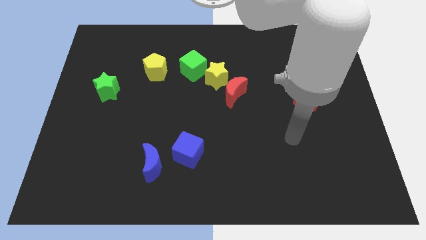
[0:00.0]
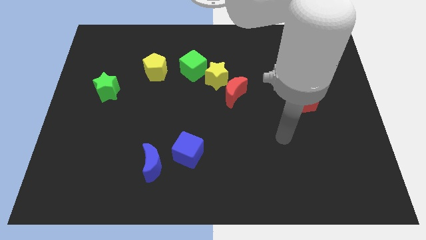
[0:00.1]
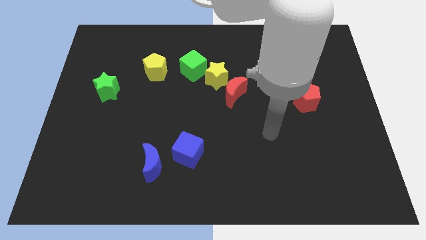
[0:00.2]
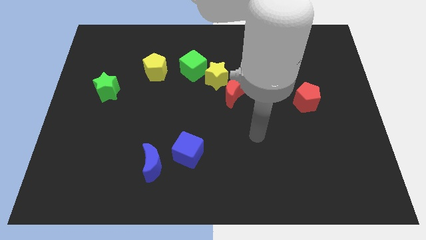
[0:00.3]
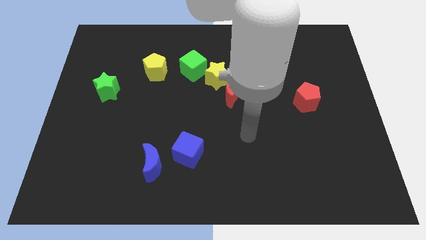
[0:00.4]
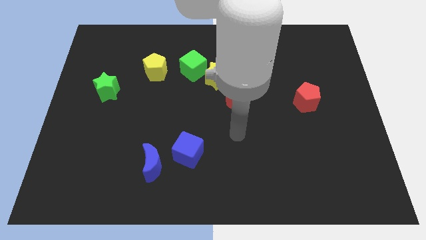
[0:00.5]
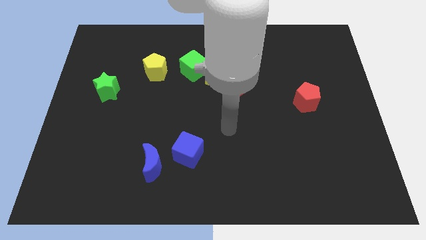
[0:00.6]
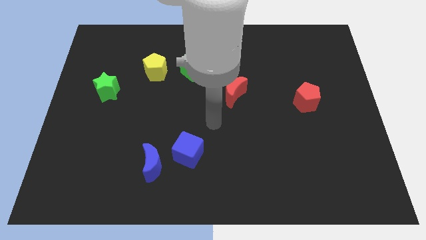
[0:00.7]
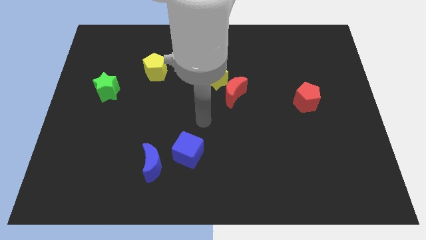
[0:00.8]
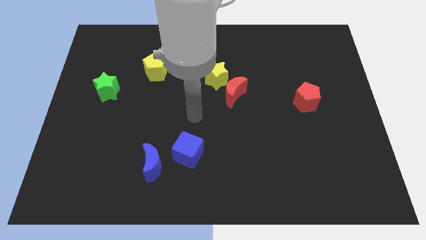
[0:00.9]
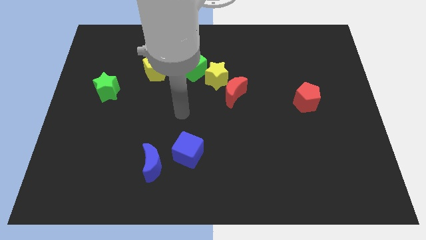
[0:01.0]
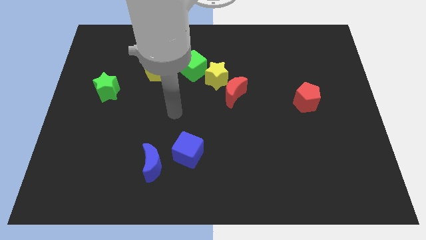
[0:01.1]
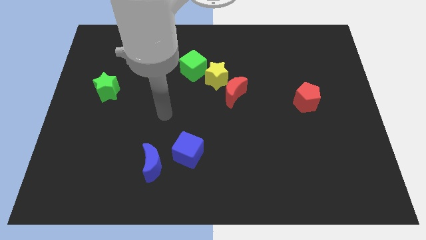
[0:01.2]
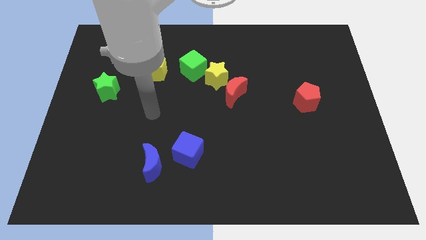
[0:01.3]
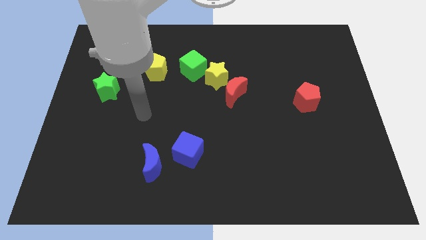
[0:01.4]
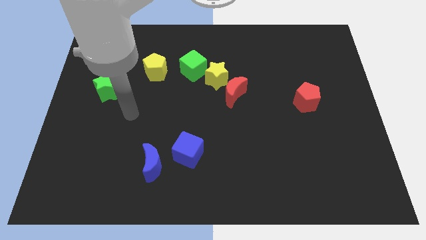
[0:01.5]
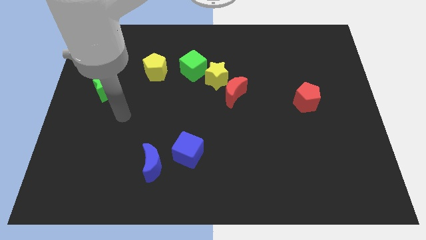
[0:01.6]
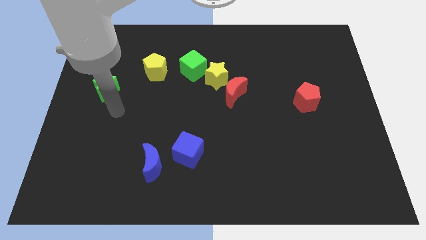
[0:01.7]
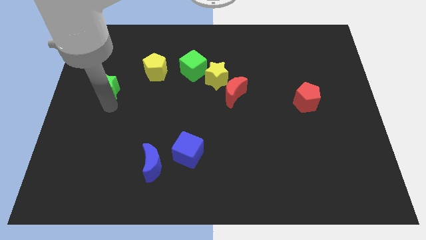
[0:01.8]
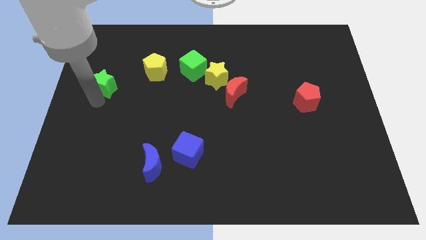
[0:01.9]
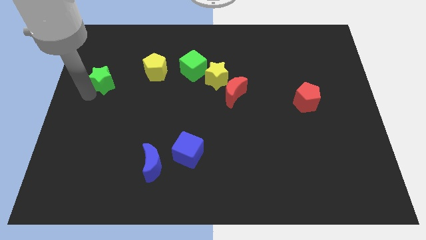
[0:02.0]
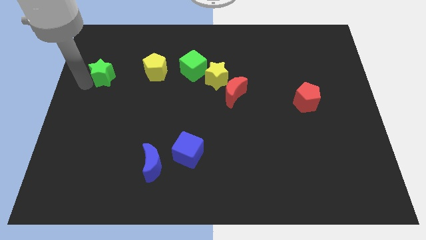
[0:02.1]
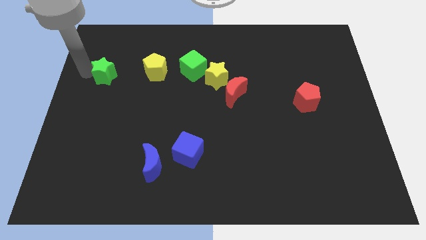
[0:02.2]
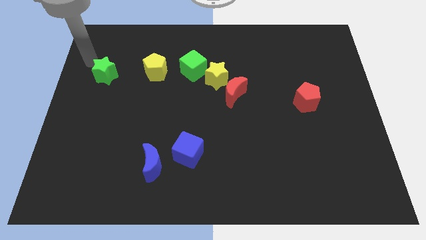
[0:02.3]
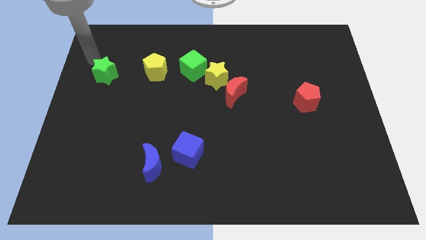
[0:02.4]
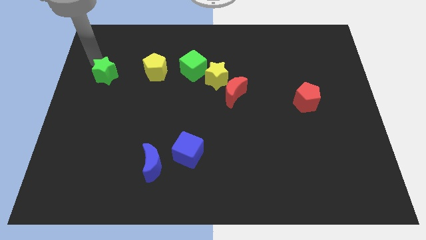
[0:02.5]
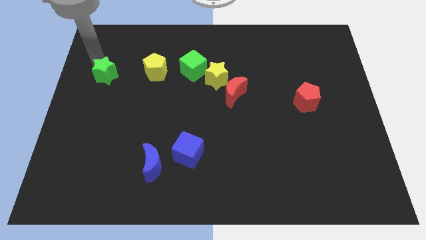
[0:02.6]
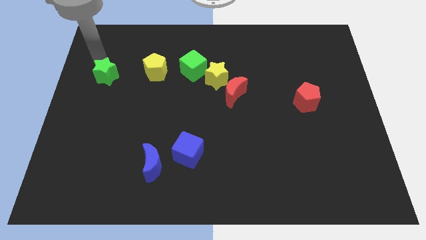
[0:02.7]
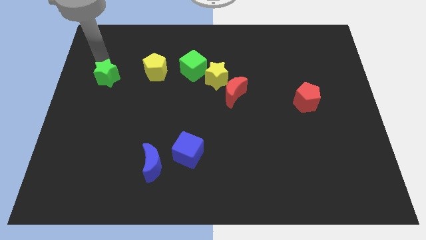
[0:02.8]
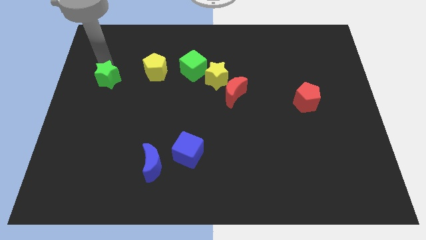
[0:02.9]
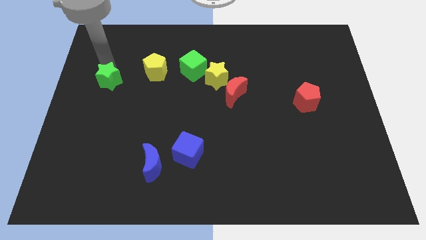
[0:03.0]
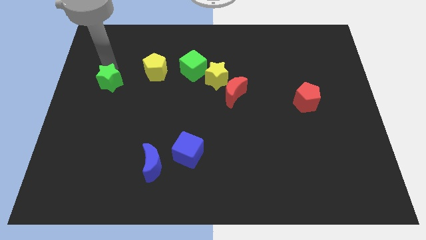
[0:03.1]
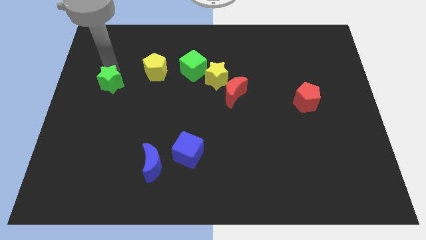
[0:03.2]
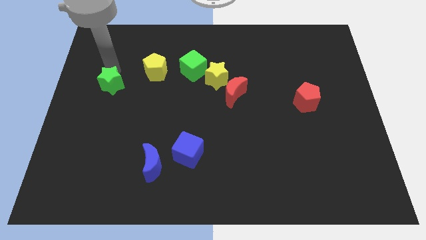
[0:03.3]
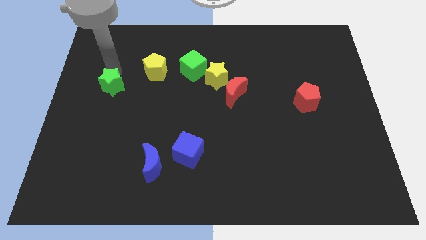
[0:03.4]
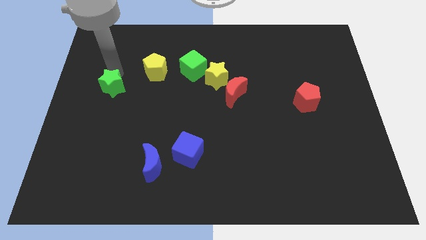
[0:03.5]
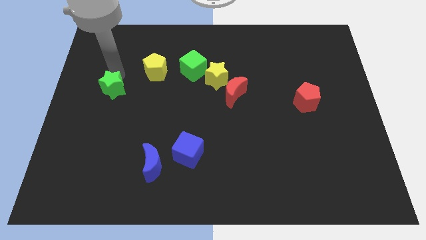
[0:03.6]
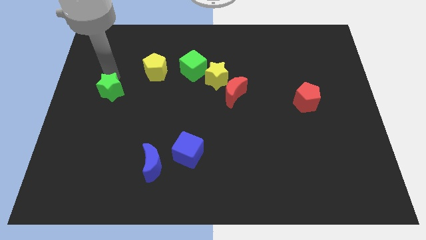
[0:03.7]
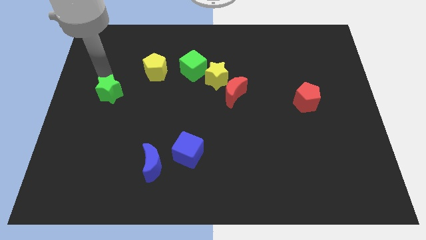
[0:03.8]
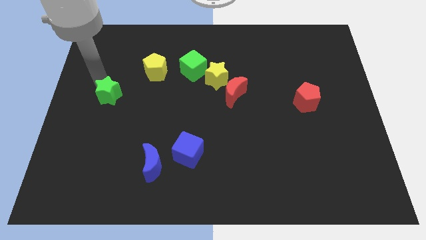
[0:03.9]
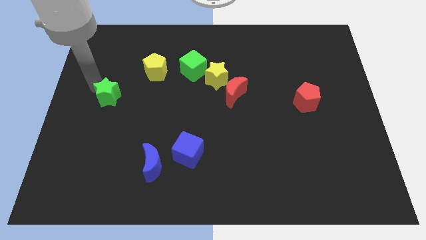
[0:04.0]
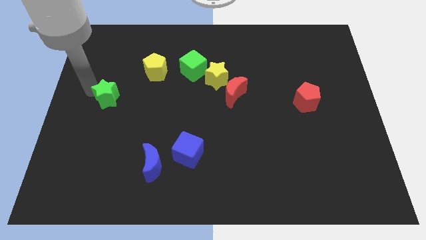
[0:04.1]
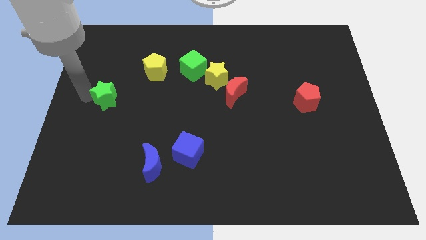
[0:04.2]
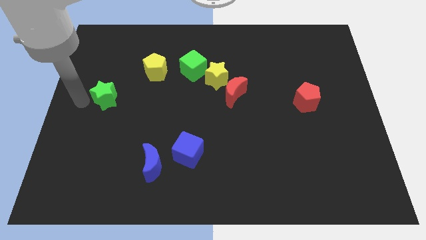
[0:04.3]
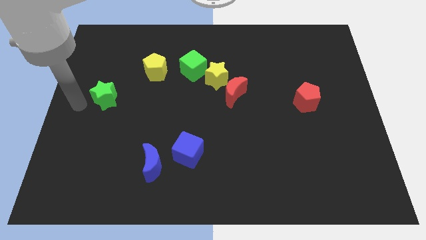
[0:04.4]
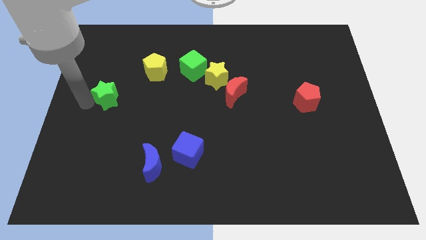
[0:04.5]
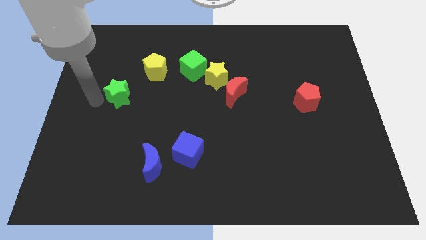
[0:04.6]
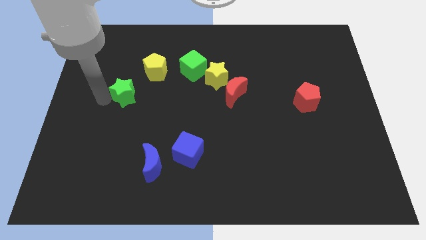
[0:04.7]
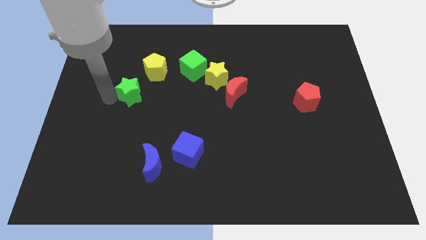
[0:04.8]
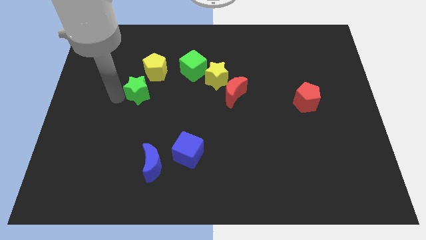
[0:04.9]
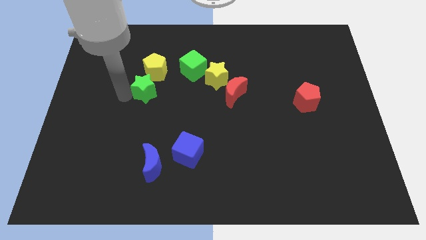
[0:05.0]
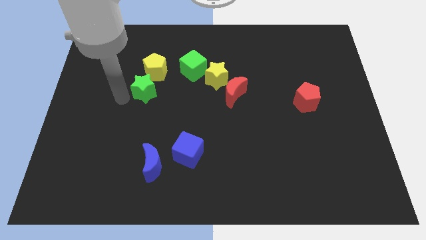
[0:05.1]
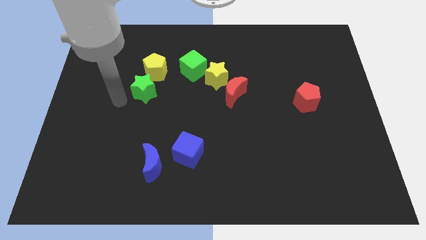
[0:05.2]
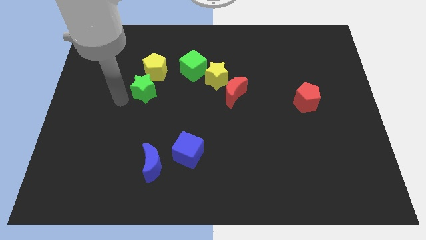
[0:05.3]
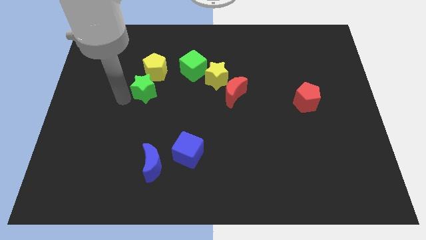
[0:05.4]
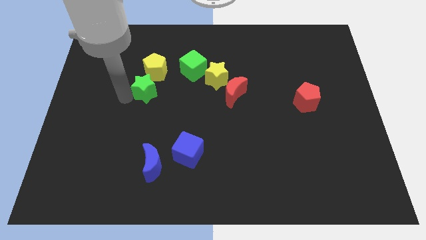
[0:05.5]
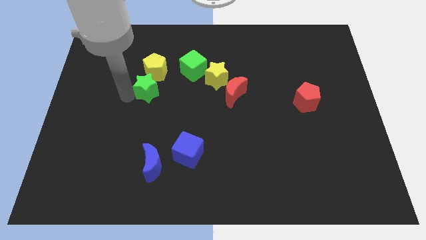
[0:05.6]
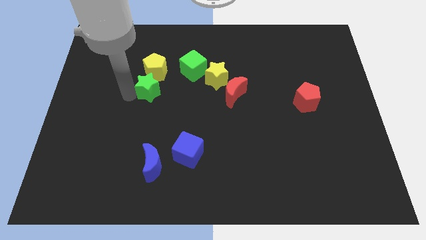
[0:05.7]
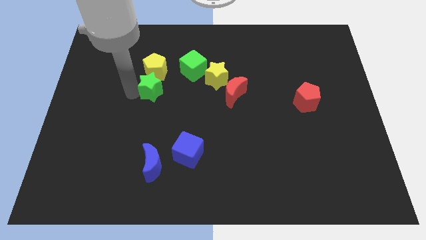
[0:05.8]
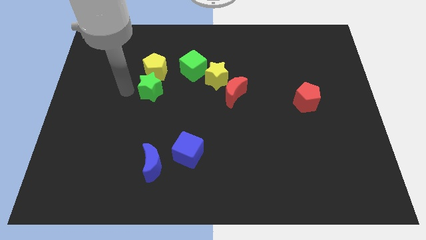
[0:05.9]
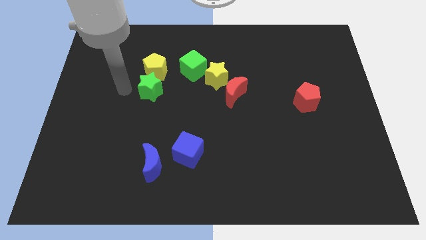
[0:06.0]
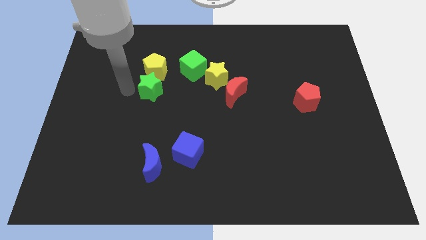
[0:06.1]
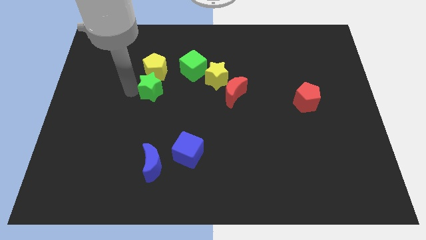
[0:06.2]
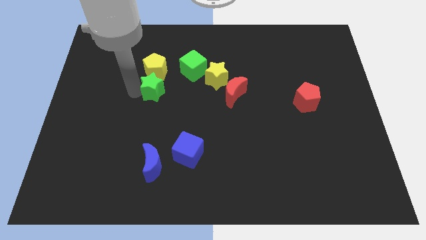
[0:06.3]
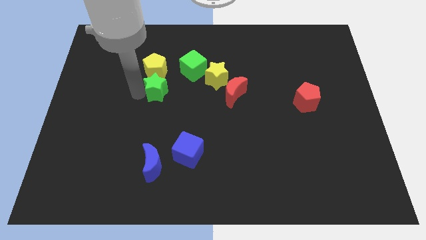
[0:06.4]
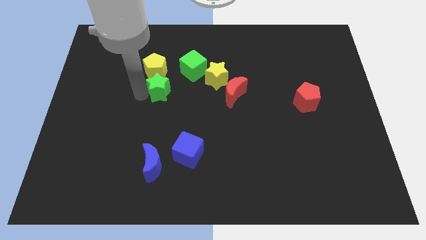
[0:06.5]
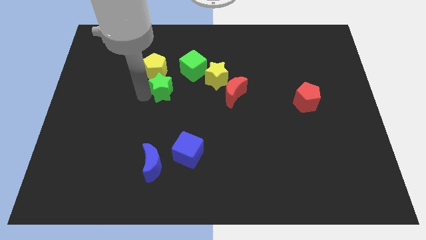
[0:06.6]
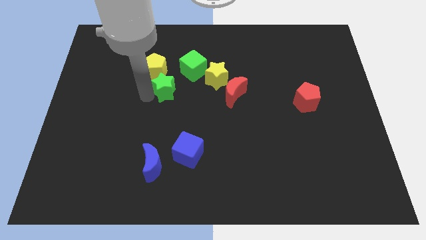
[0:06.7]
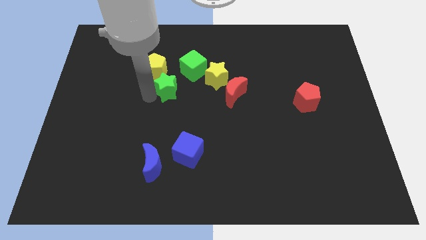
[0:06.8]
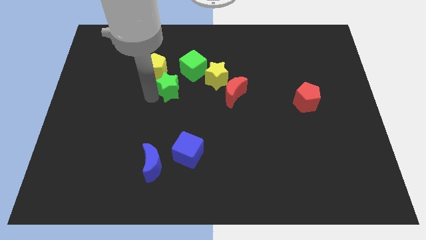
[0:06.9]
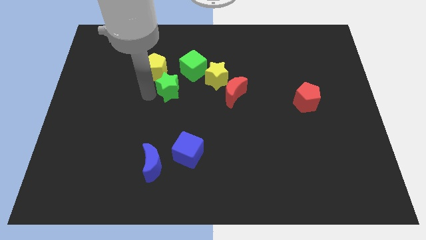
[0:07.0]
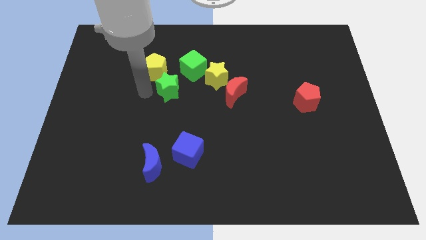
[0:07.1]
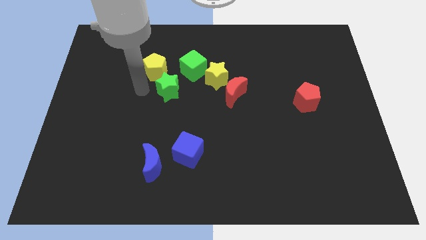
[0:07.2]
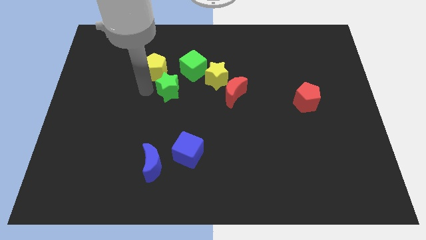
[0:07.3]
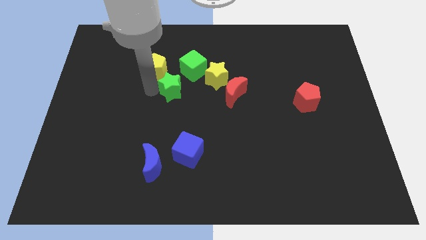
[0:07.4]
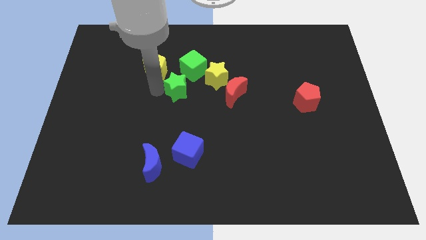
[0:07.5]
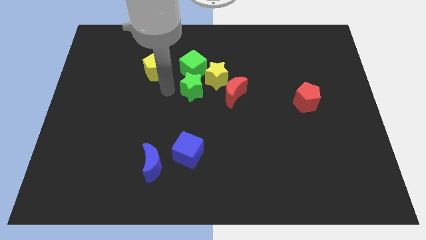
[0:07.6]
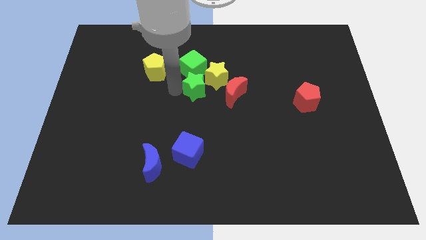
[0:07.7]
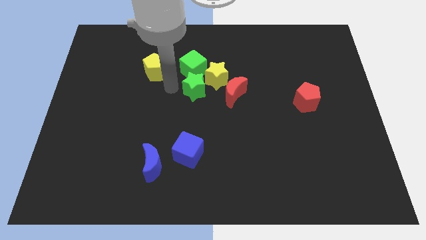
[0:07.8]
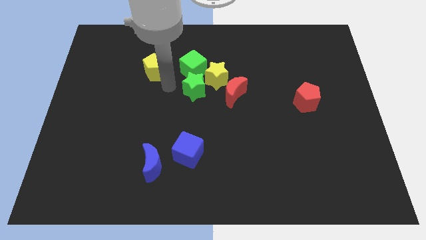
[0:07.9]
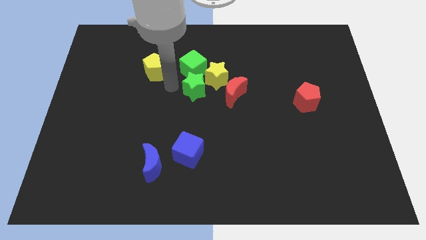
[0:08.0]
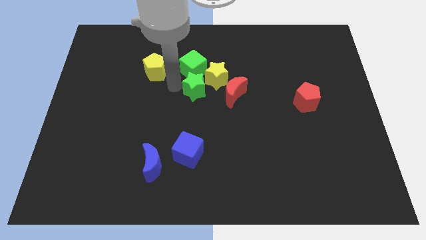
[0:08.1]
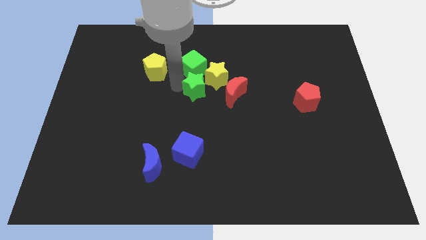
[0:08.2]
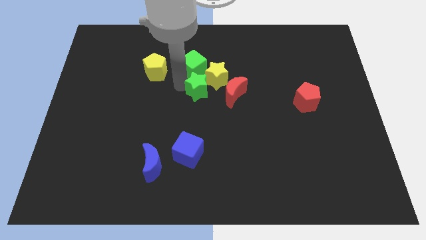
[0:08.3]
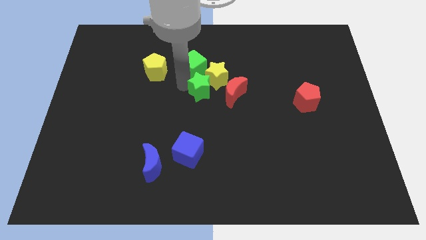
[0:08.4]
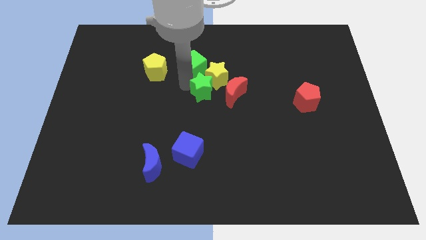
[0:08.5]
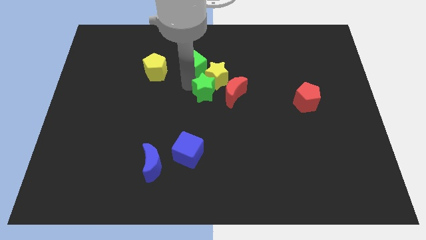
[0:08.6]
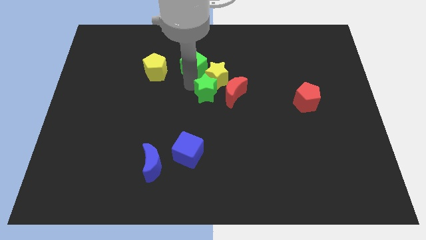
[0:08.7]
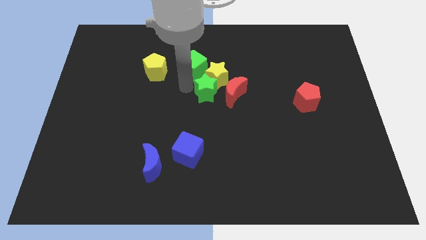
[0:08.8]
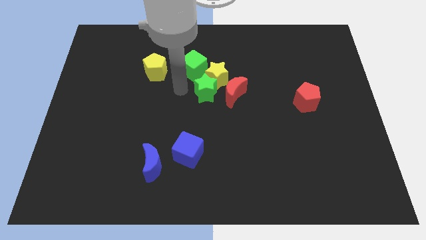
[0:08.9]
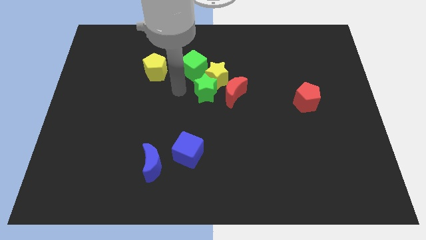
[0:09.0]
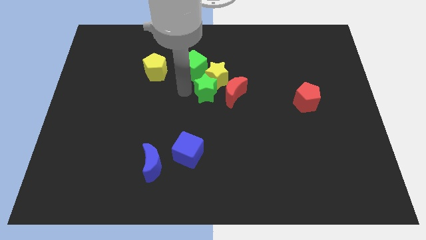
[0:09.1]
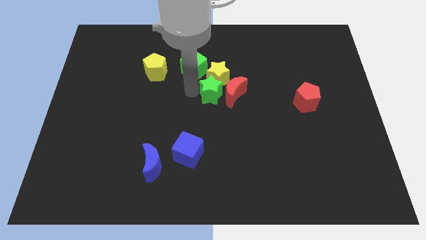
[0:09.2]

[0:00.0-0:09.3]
move the green star next to the red moon
